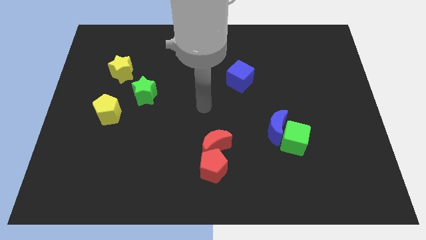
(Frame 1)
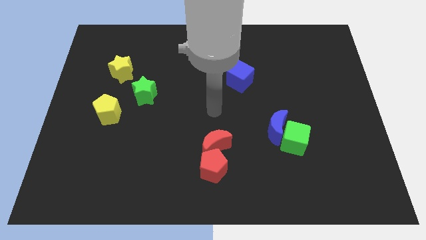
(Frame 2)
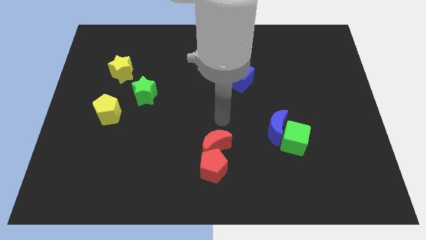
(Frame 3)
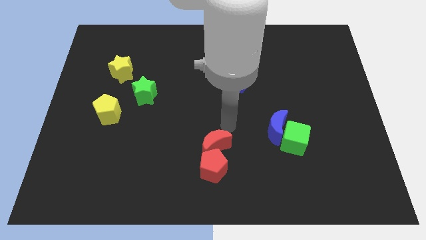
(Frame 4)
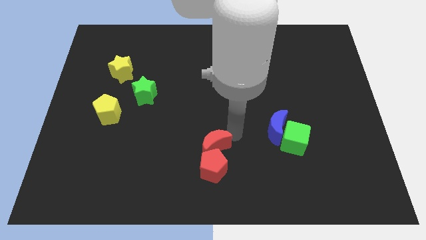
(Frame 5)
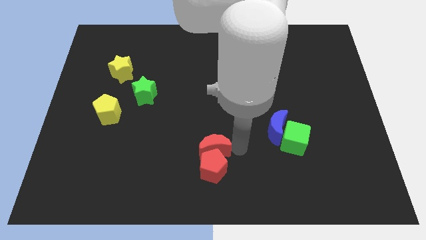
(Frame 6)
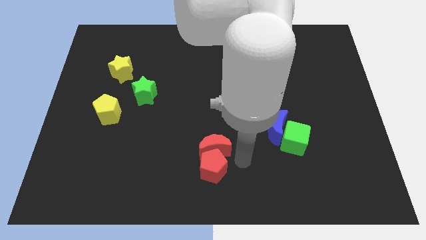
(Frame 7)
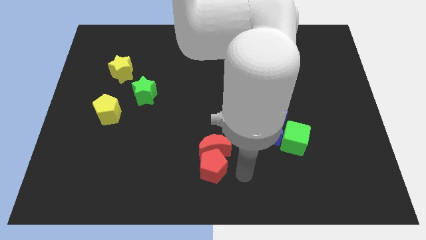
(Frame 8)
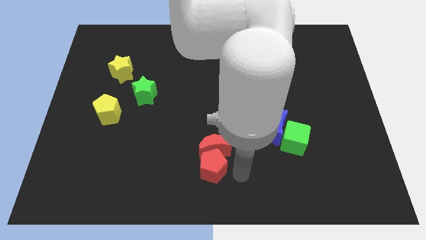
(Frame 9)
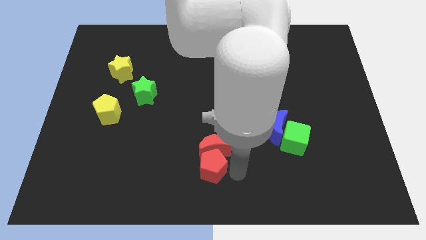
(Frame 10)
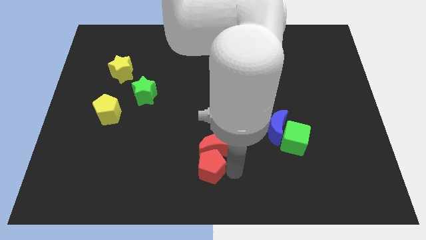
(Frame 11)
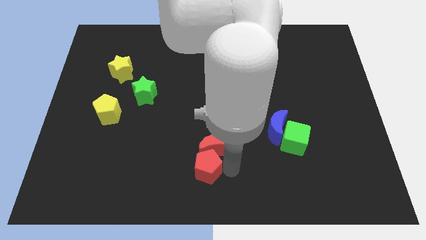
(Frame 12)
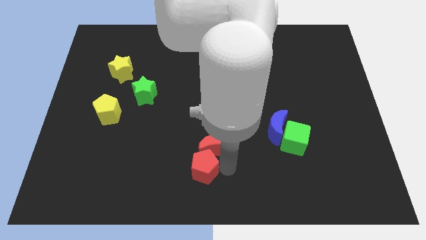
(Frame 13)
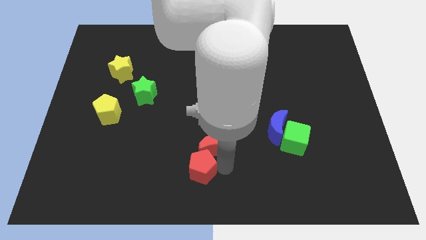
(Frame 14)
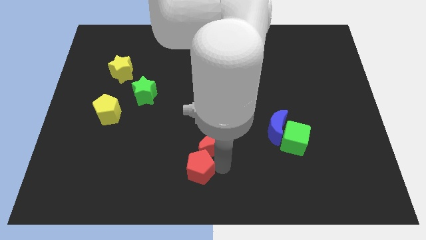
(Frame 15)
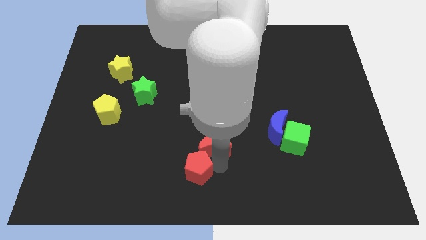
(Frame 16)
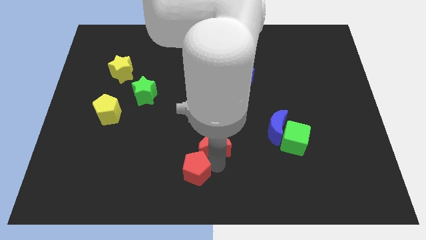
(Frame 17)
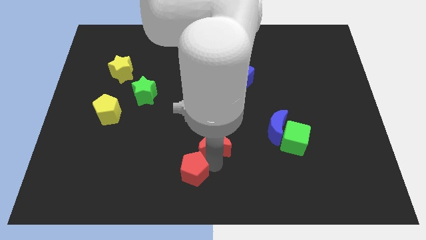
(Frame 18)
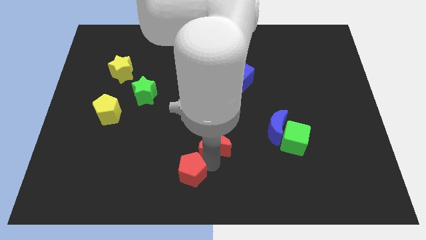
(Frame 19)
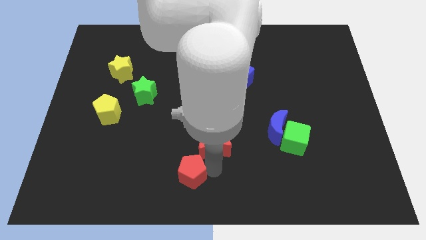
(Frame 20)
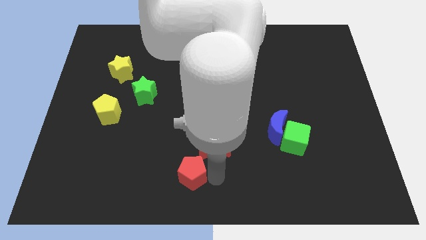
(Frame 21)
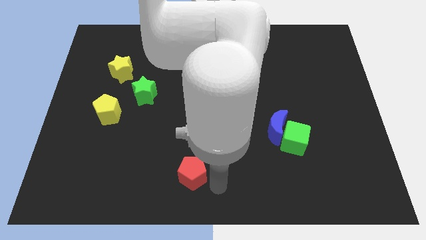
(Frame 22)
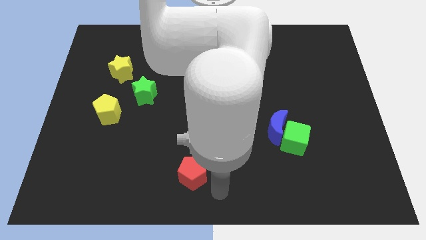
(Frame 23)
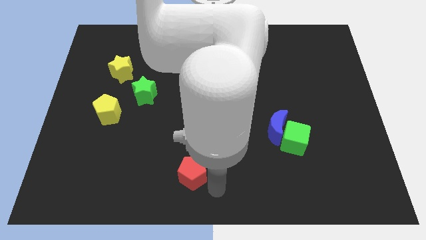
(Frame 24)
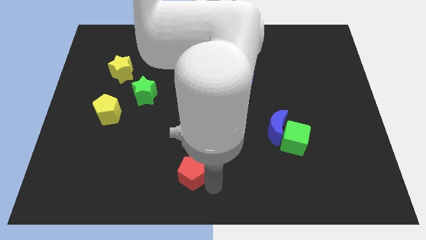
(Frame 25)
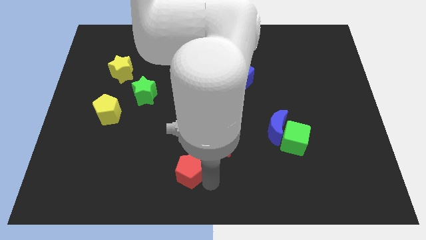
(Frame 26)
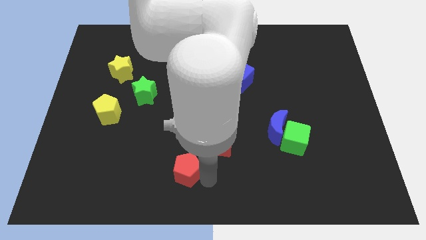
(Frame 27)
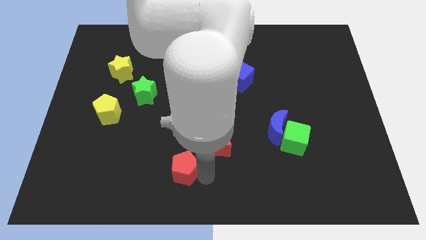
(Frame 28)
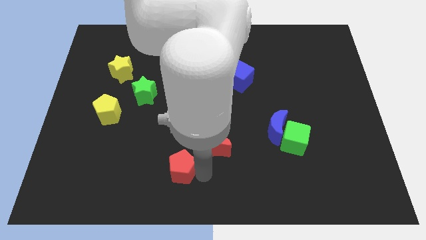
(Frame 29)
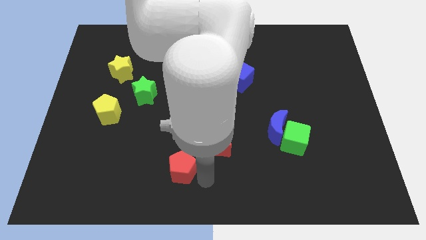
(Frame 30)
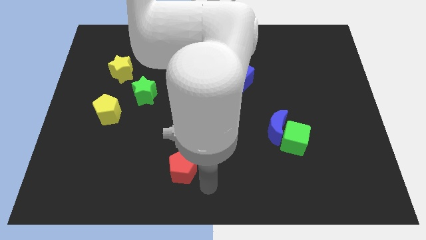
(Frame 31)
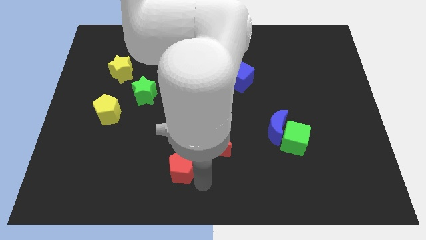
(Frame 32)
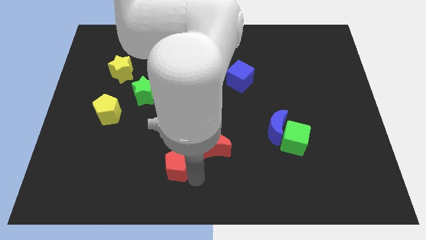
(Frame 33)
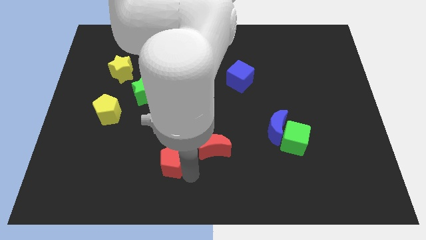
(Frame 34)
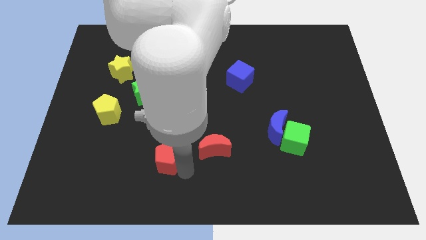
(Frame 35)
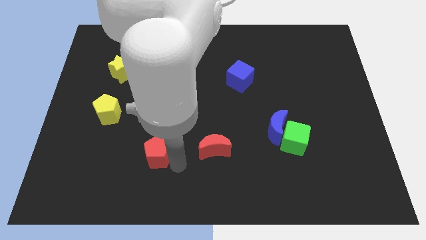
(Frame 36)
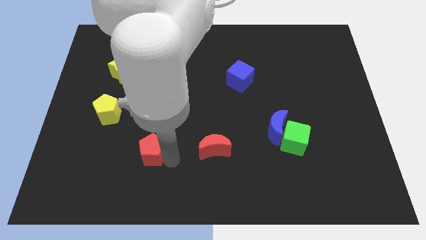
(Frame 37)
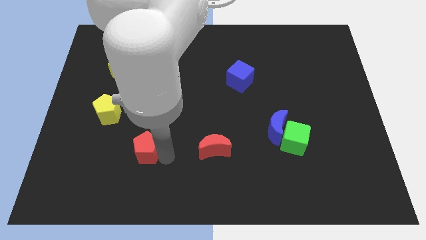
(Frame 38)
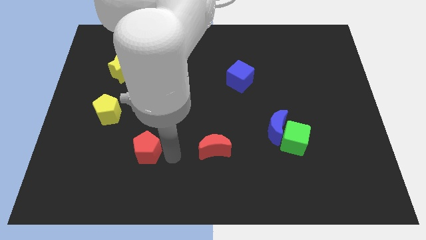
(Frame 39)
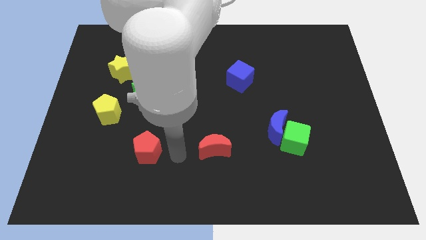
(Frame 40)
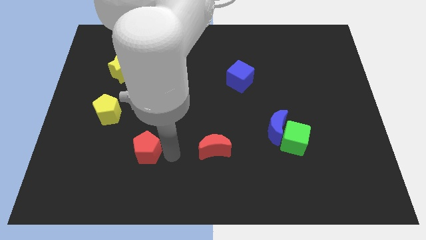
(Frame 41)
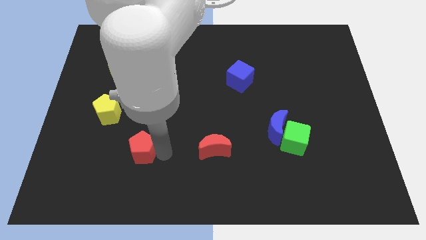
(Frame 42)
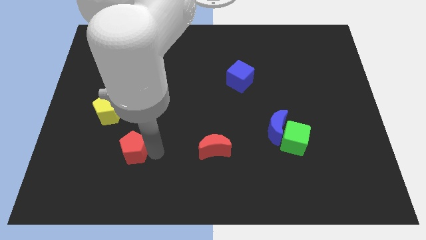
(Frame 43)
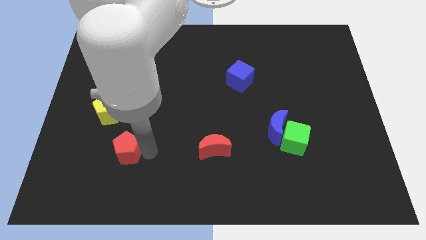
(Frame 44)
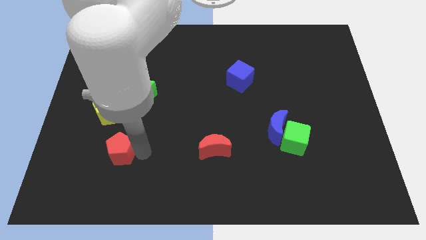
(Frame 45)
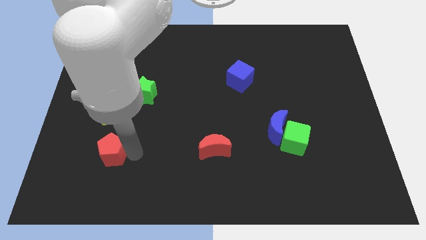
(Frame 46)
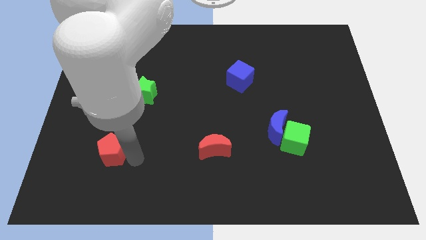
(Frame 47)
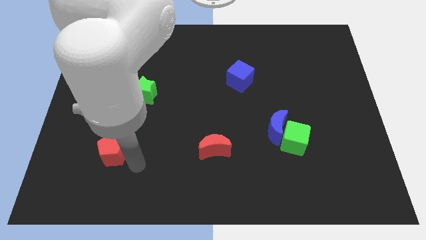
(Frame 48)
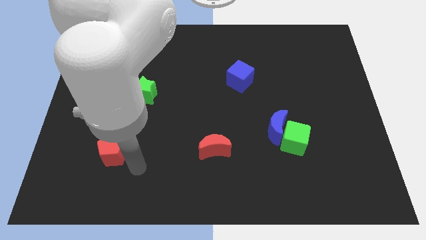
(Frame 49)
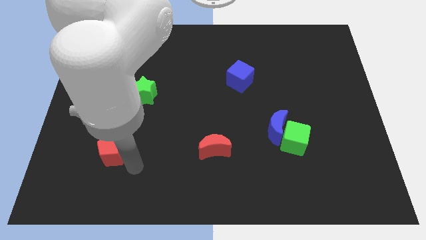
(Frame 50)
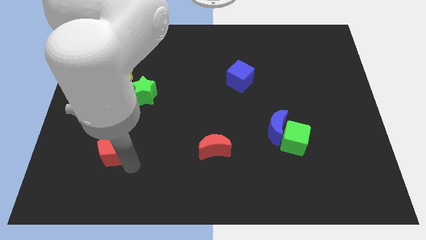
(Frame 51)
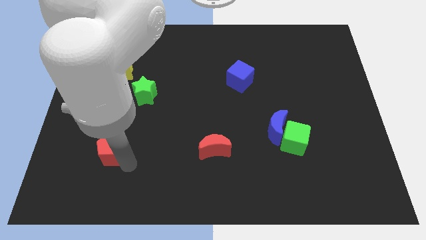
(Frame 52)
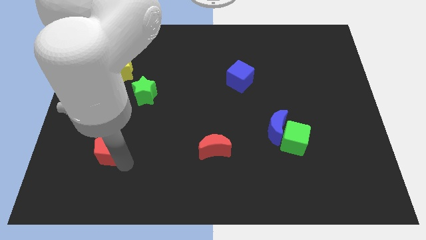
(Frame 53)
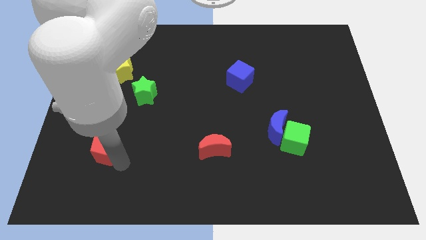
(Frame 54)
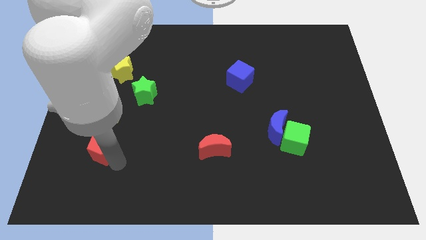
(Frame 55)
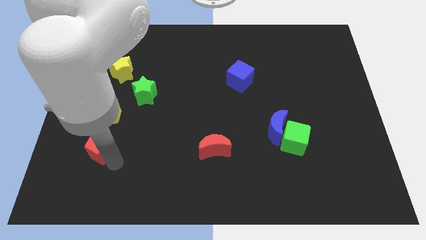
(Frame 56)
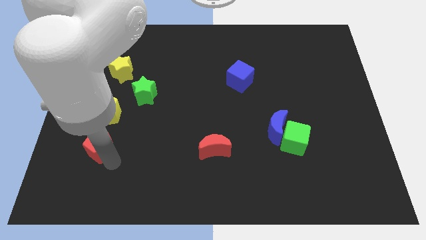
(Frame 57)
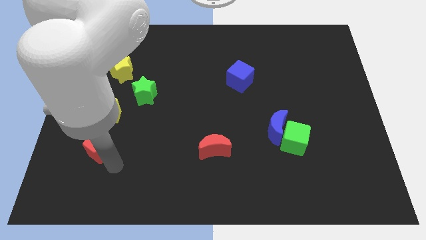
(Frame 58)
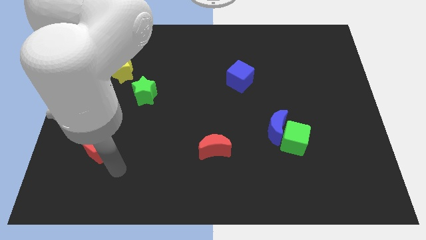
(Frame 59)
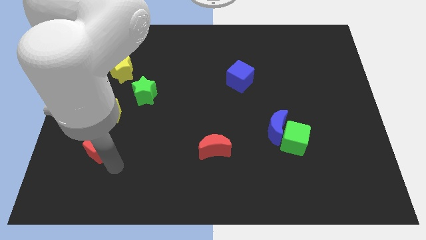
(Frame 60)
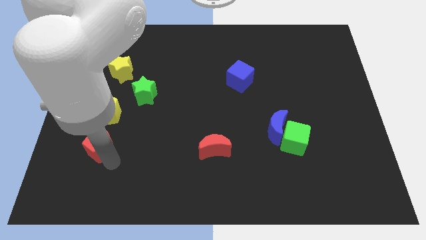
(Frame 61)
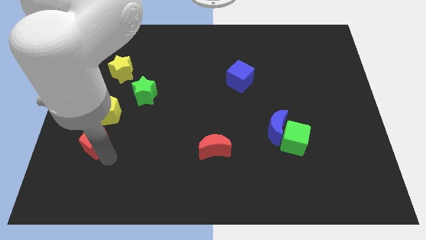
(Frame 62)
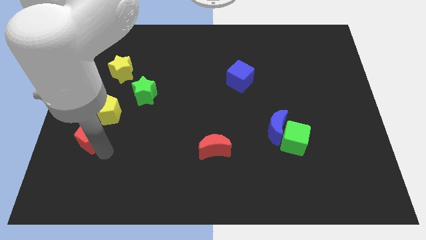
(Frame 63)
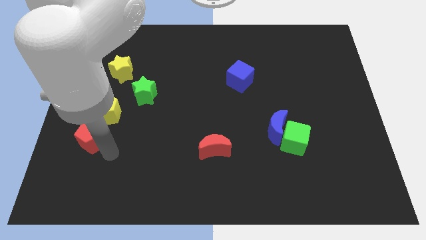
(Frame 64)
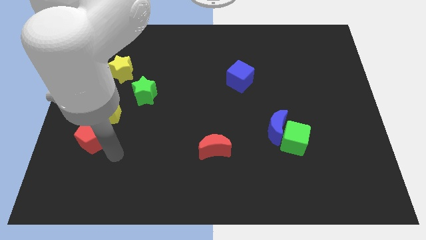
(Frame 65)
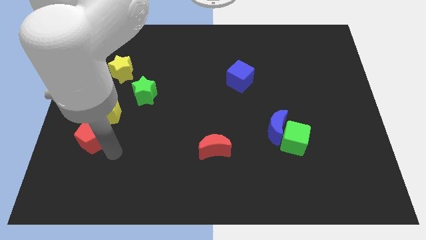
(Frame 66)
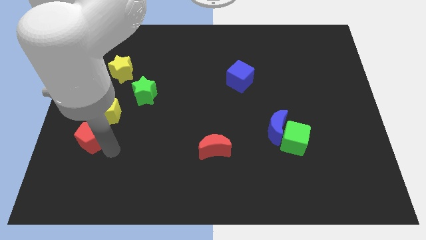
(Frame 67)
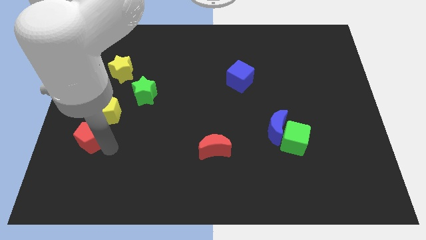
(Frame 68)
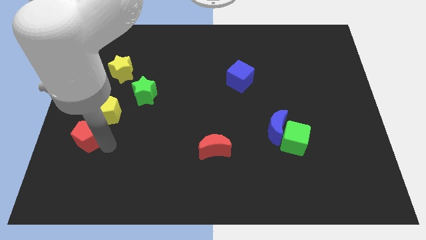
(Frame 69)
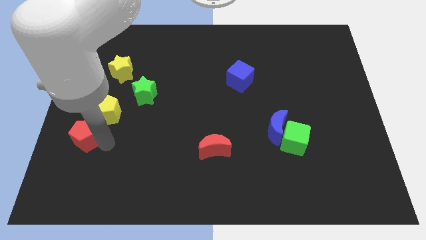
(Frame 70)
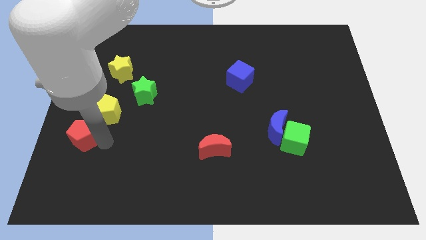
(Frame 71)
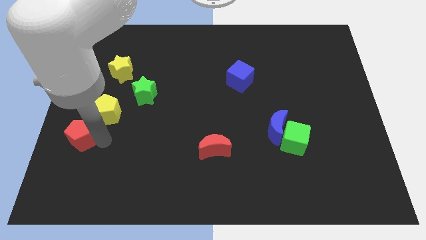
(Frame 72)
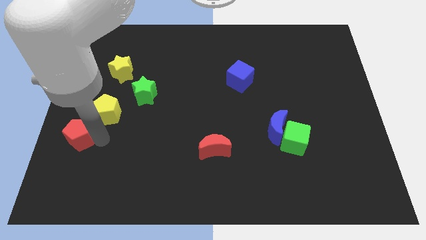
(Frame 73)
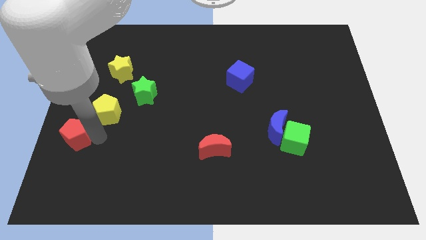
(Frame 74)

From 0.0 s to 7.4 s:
slide the red pentagon to the center left

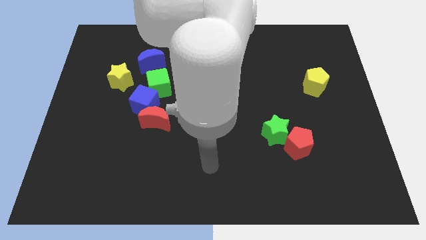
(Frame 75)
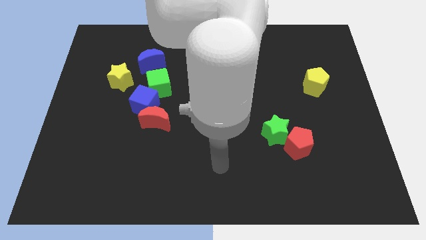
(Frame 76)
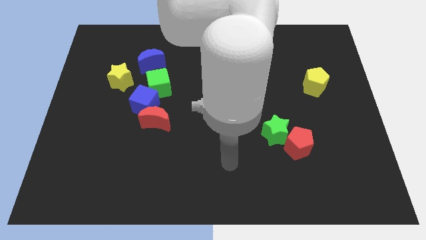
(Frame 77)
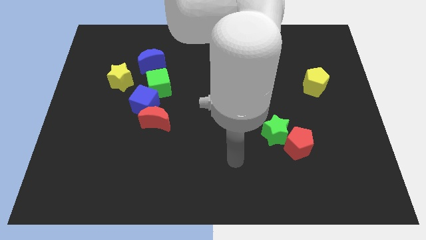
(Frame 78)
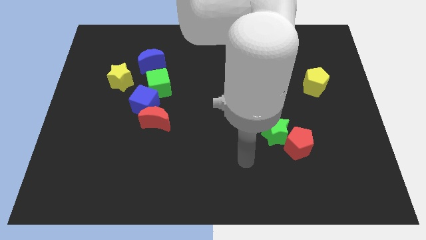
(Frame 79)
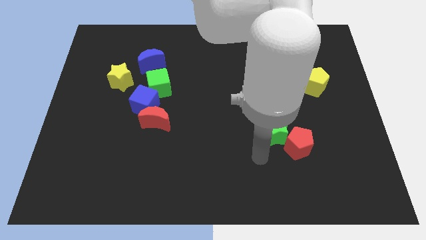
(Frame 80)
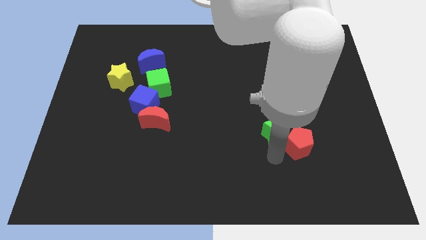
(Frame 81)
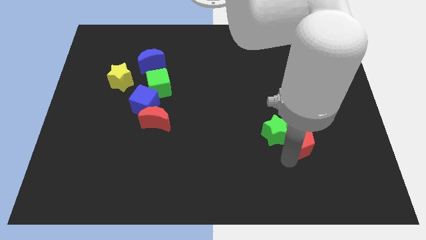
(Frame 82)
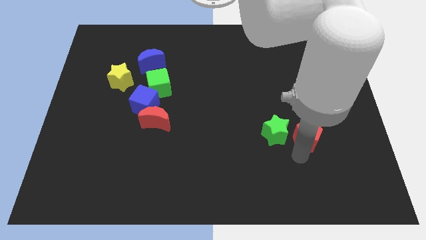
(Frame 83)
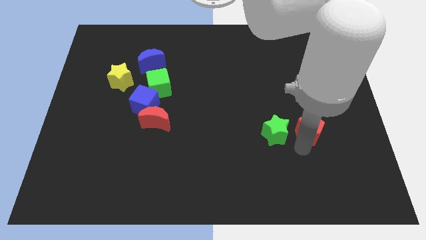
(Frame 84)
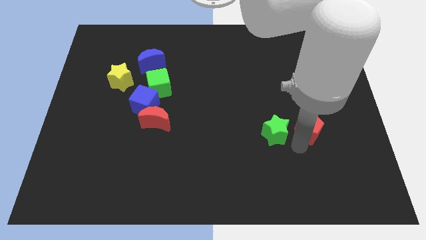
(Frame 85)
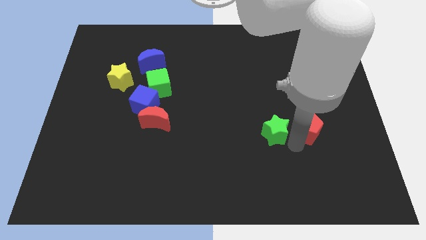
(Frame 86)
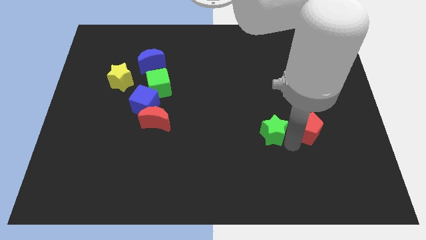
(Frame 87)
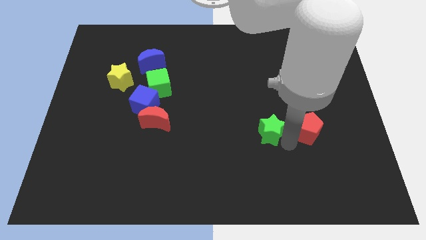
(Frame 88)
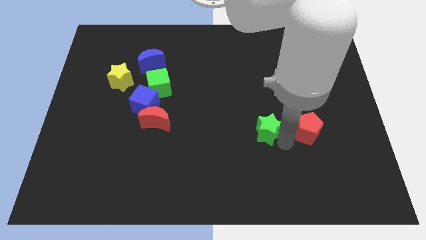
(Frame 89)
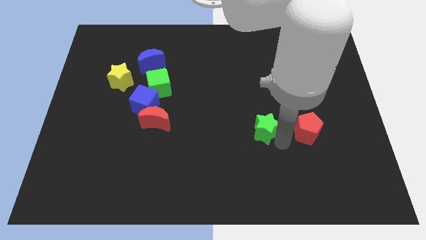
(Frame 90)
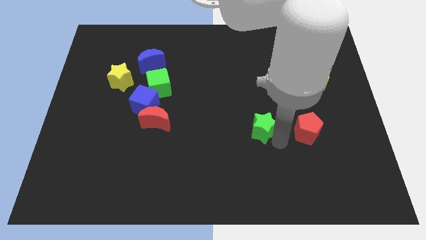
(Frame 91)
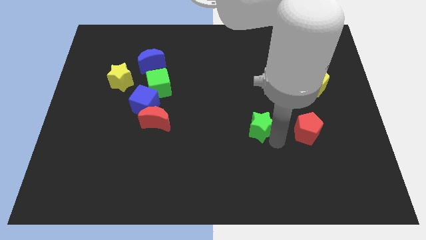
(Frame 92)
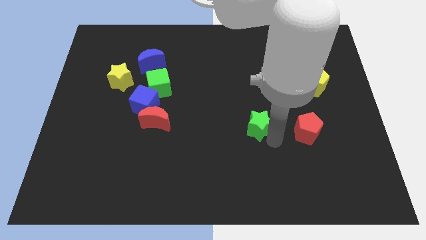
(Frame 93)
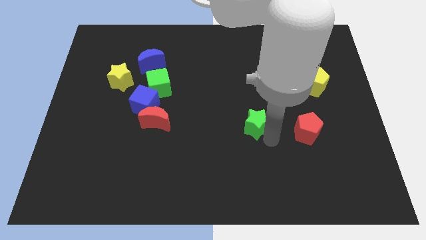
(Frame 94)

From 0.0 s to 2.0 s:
put the green star to the middle of the board
